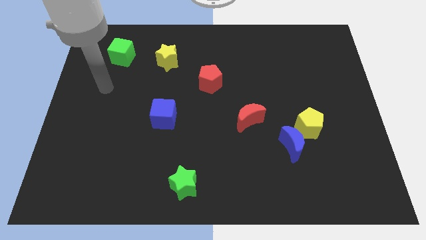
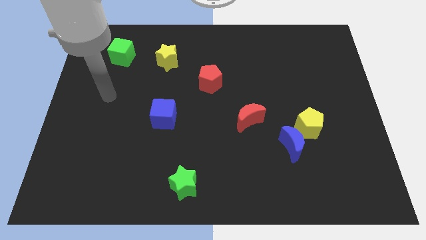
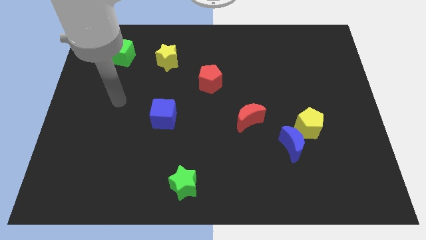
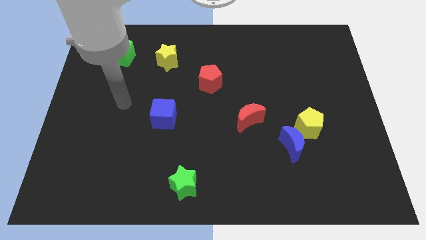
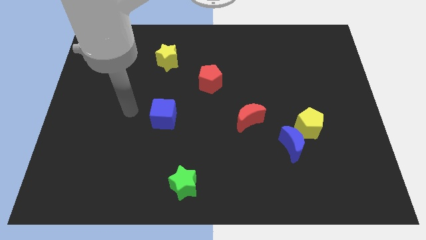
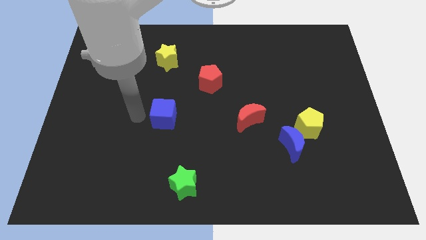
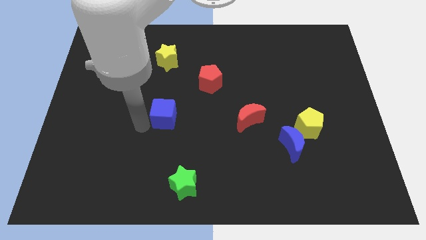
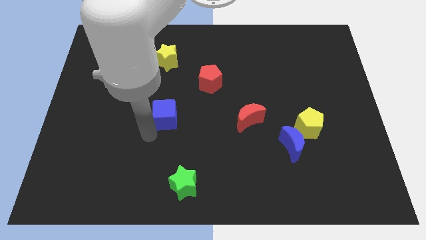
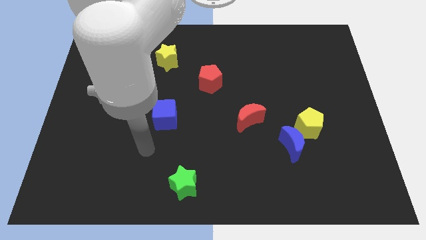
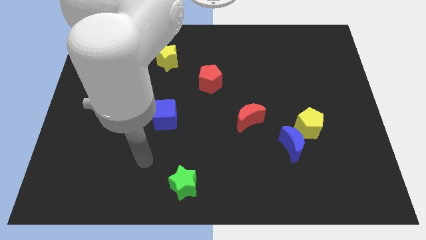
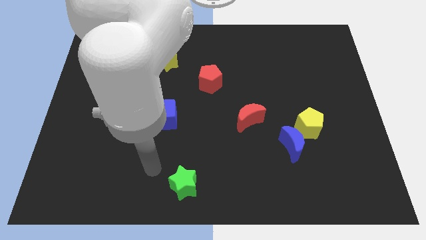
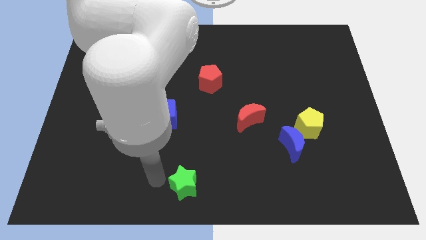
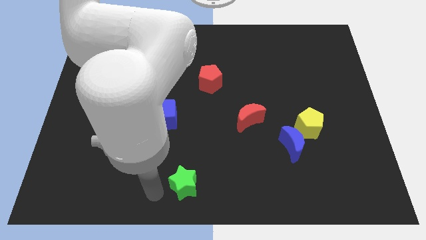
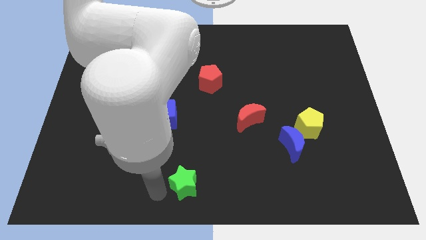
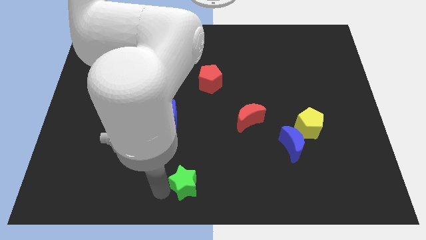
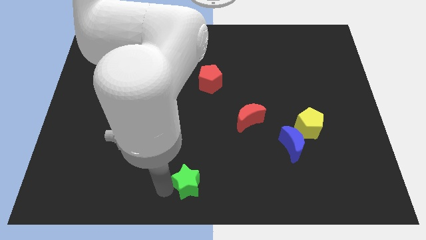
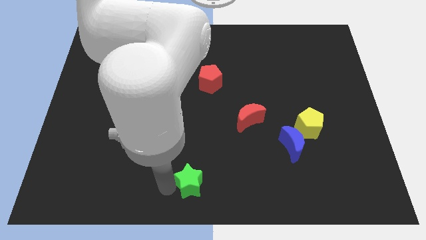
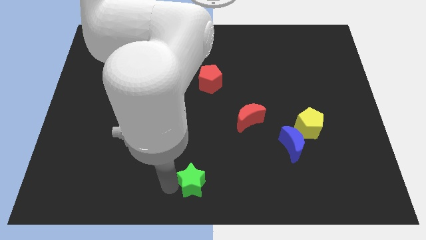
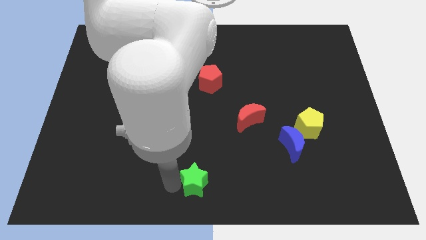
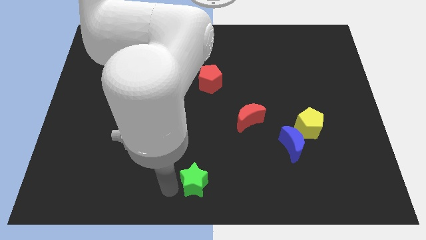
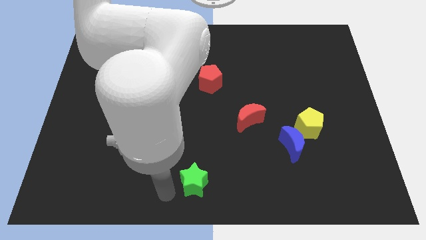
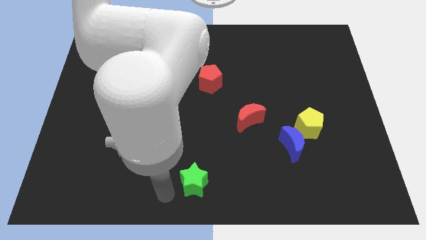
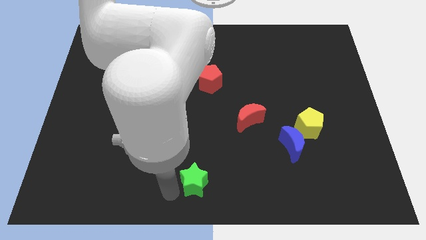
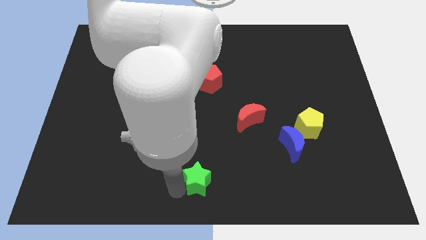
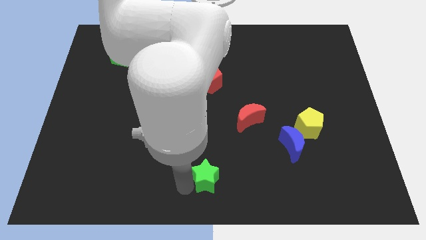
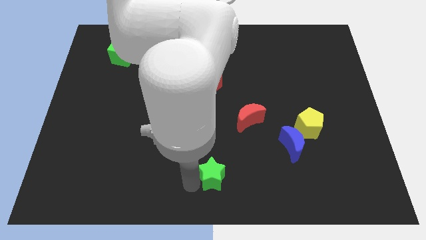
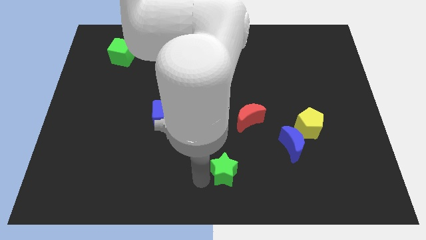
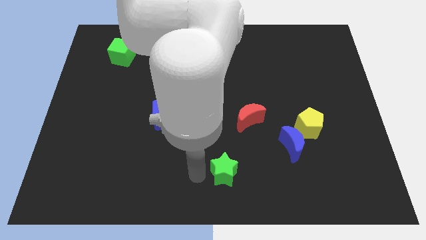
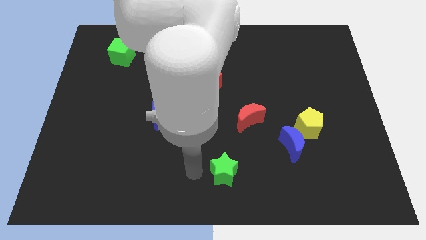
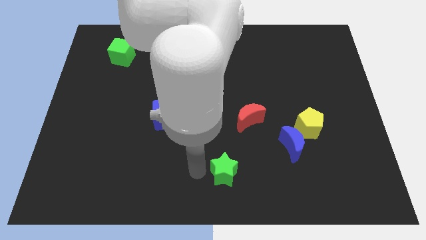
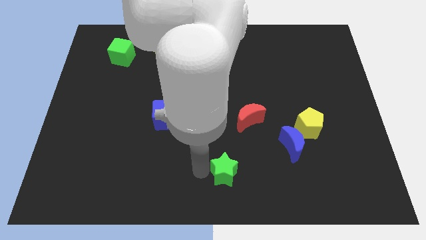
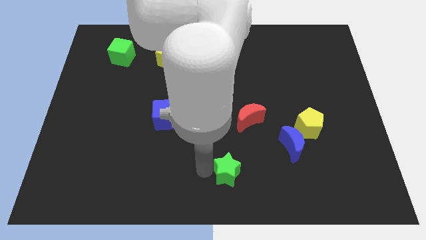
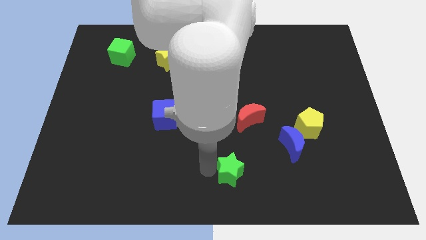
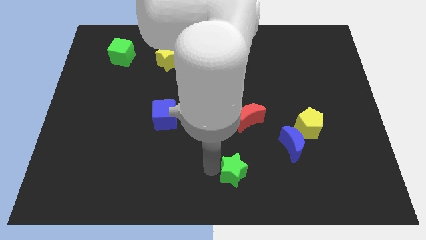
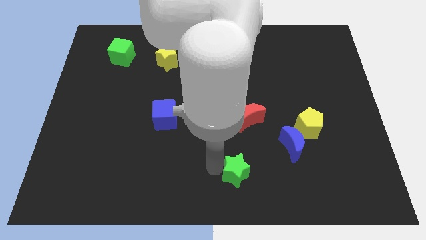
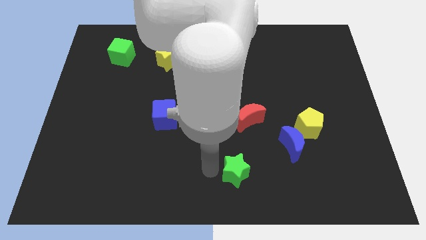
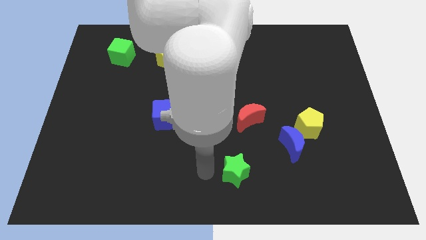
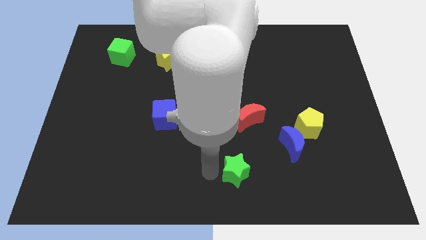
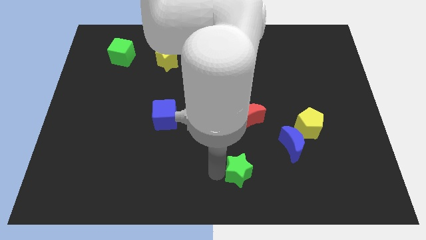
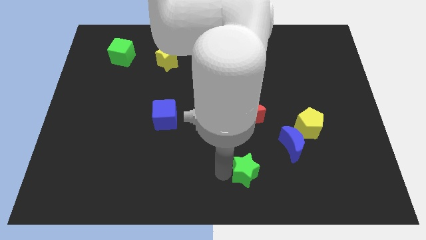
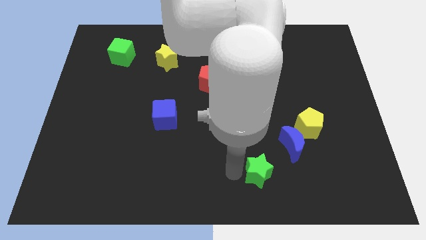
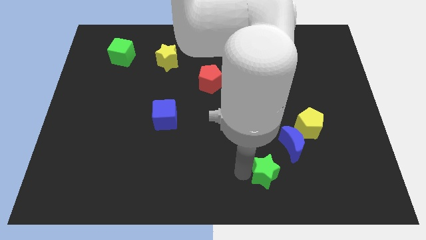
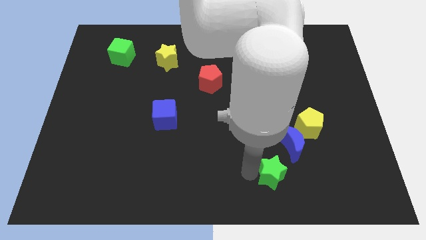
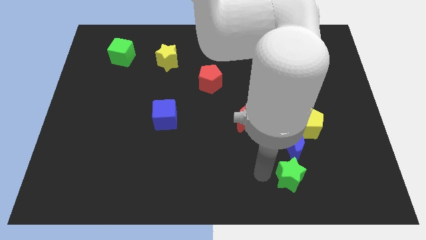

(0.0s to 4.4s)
move the green star to the right

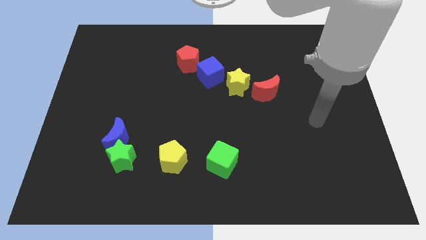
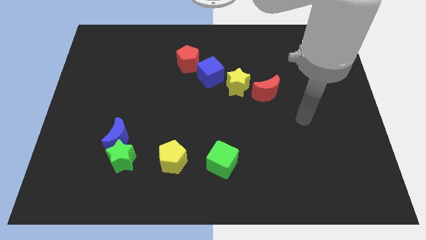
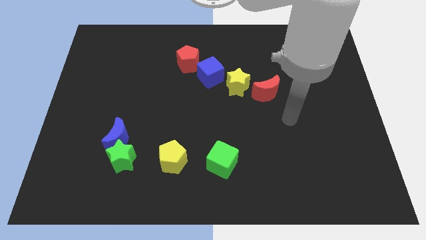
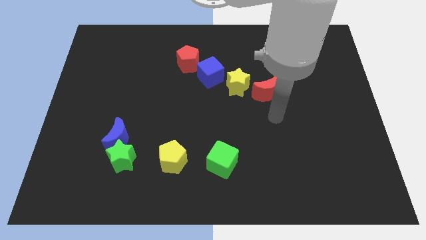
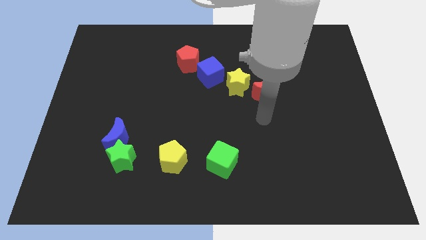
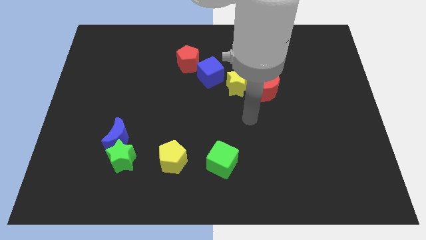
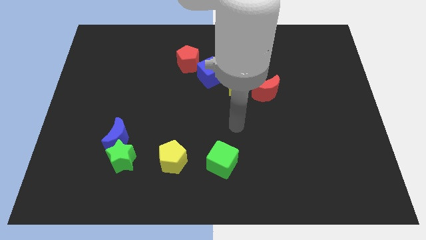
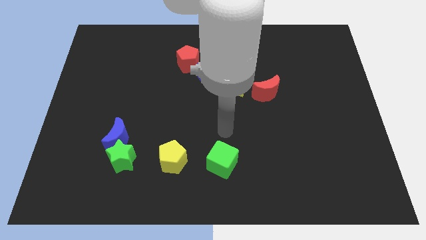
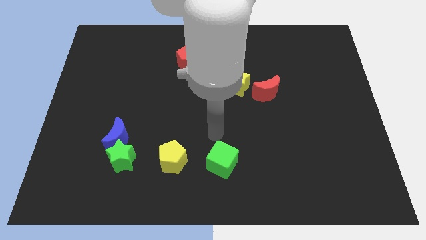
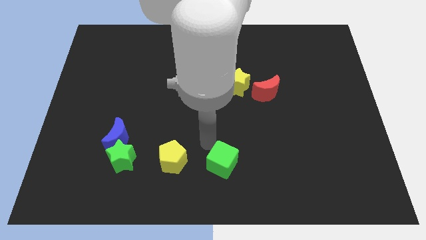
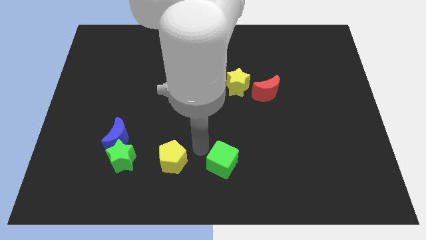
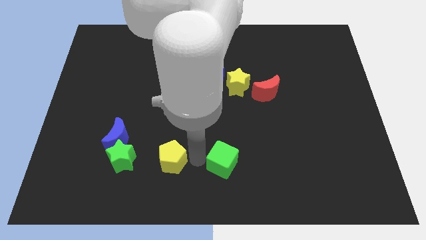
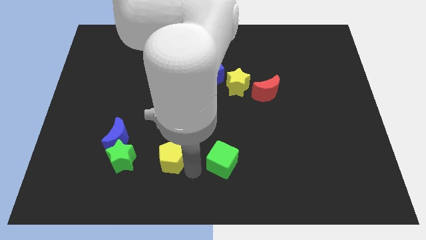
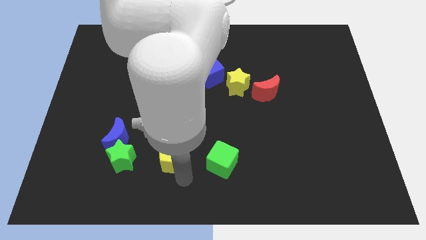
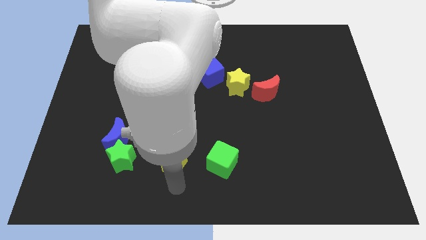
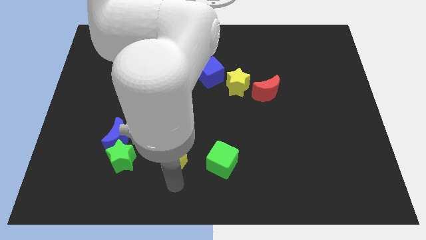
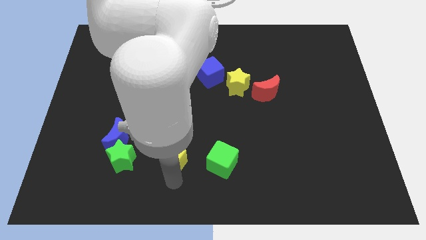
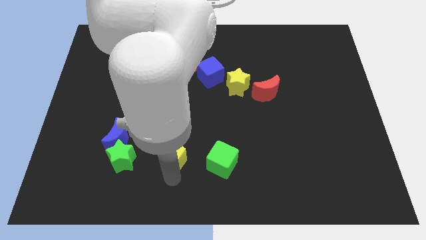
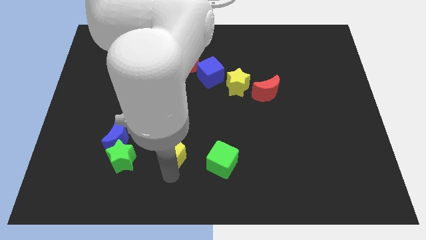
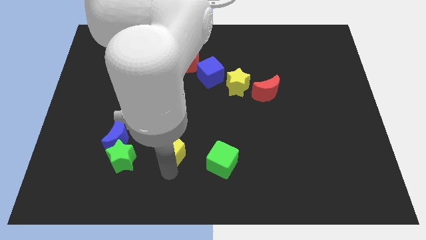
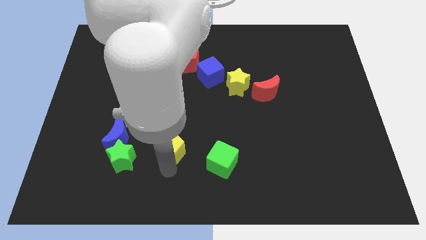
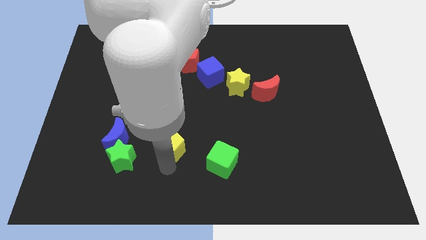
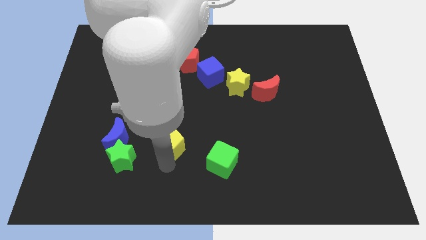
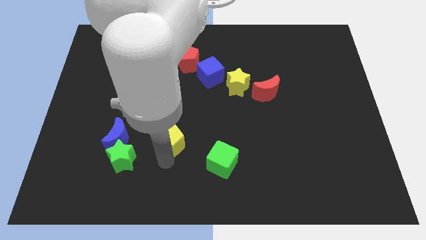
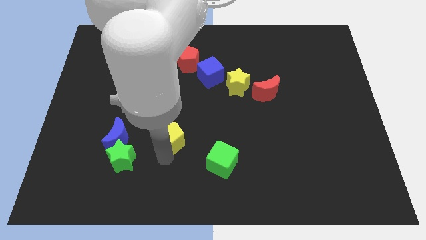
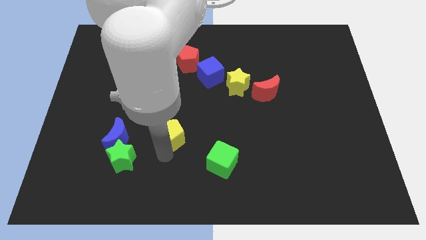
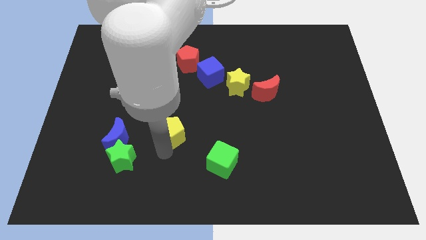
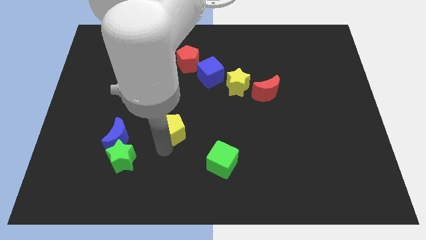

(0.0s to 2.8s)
slightly push the yellow pentagon upwards

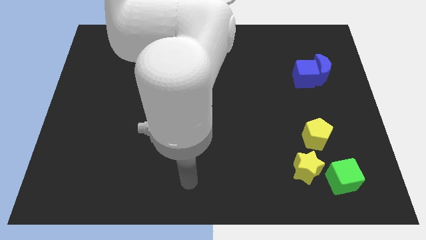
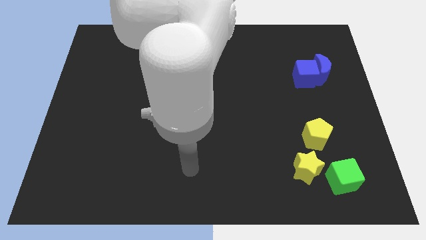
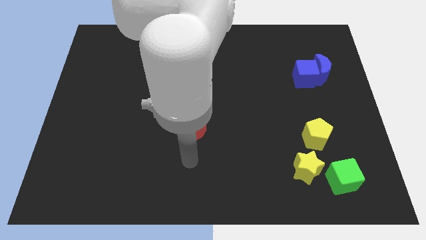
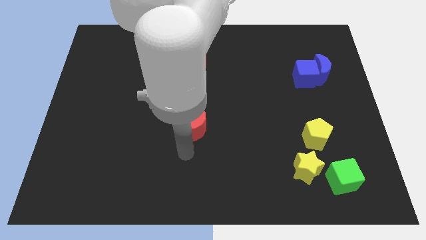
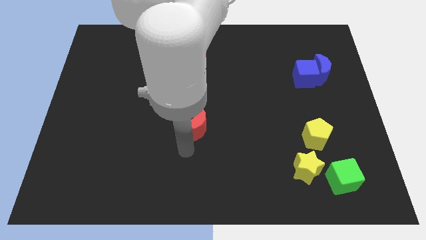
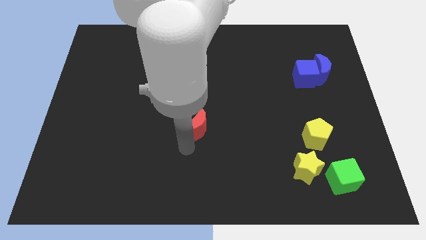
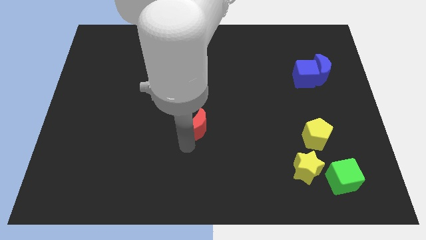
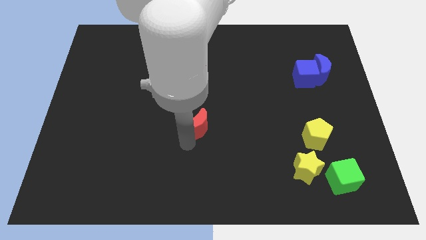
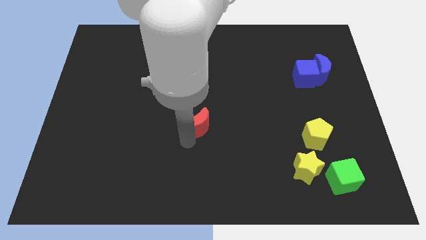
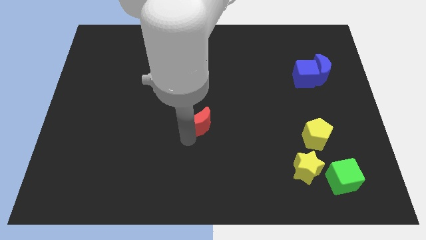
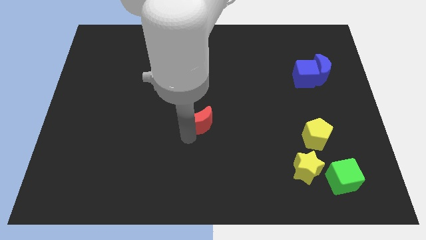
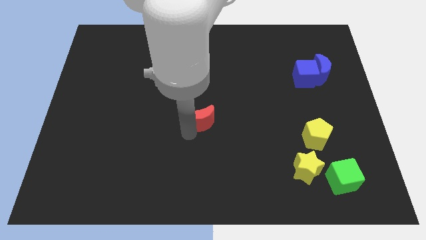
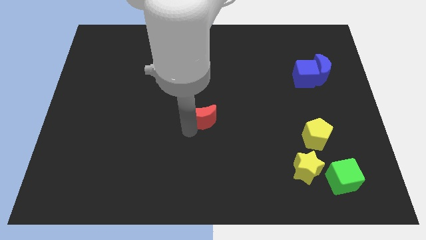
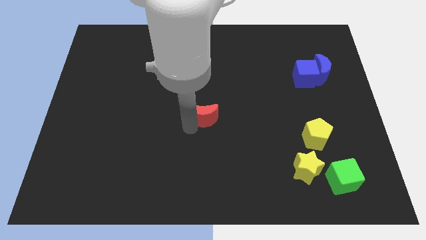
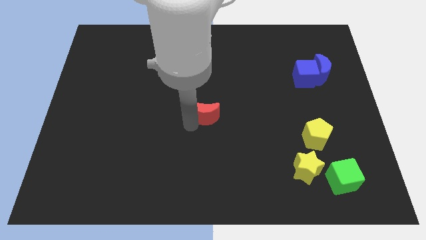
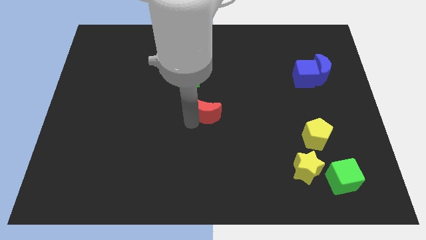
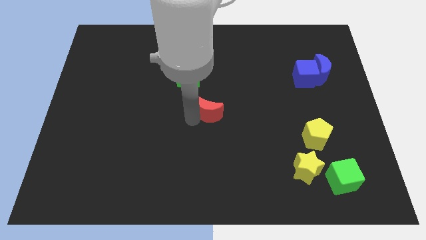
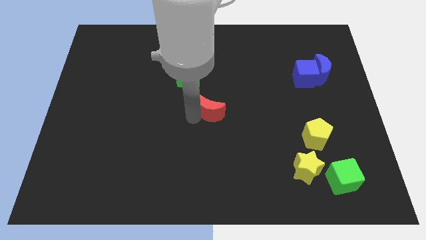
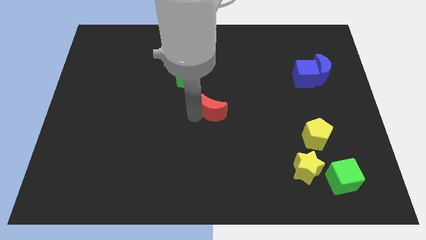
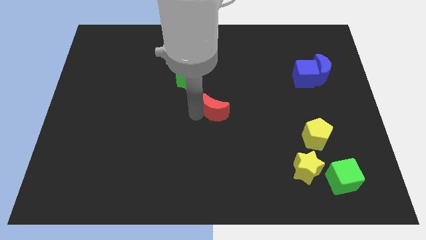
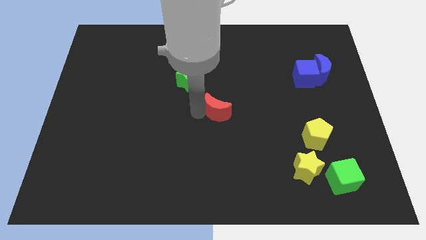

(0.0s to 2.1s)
slightly slide the red moon up and to the right
